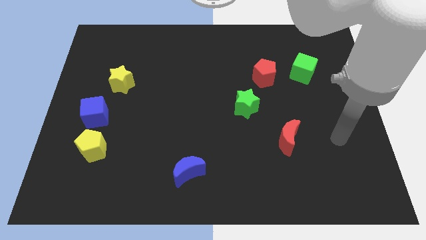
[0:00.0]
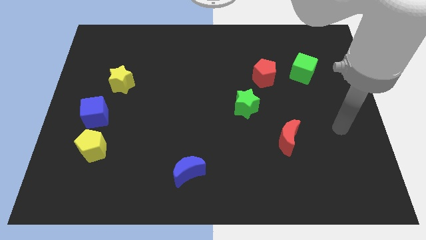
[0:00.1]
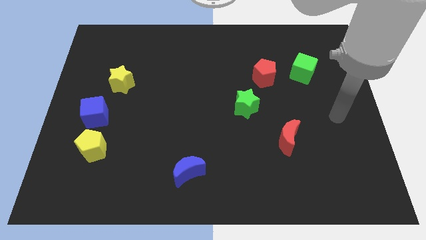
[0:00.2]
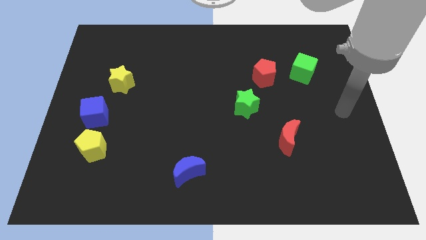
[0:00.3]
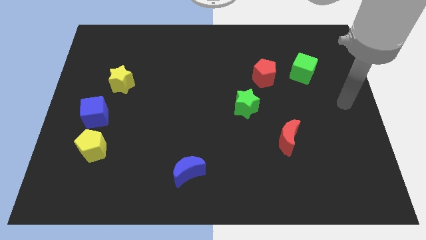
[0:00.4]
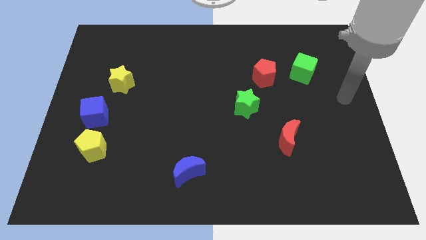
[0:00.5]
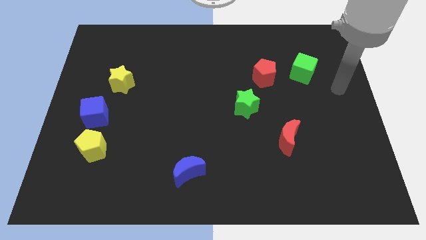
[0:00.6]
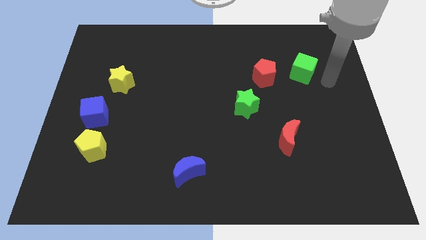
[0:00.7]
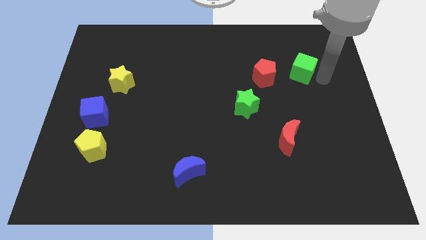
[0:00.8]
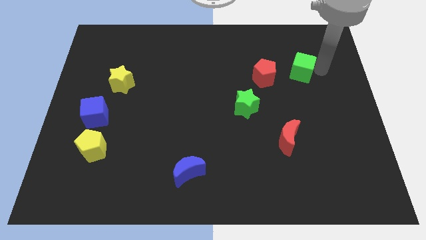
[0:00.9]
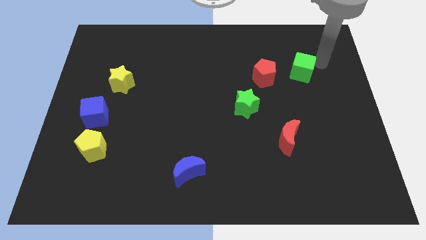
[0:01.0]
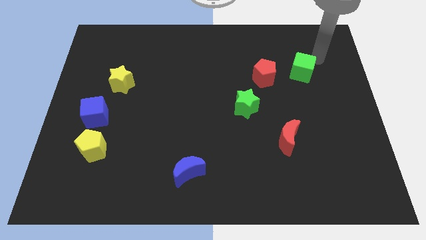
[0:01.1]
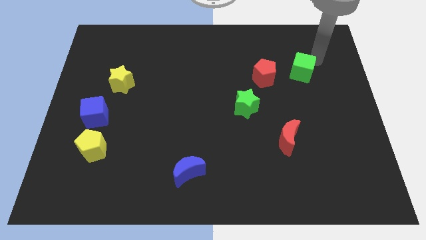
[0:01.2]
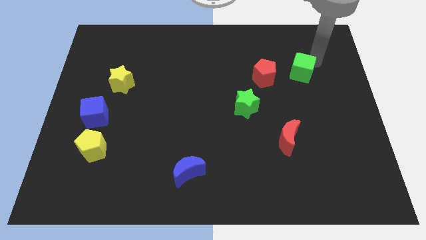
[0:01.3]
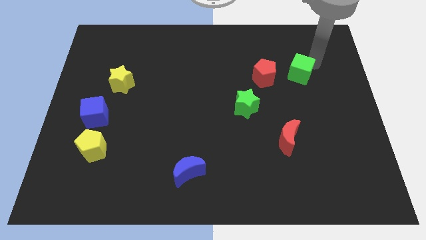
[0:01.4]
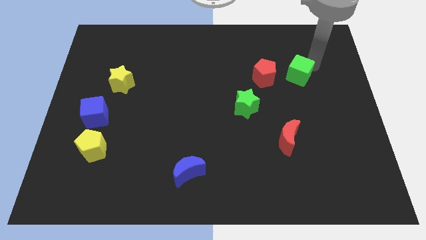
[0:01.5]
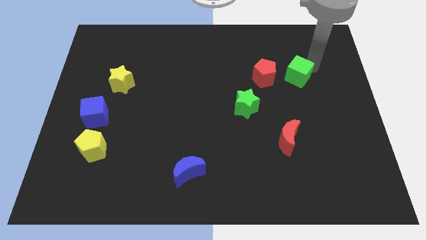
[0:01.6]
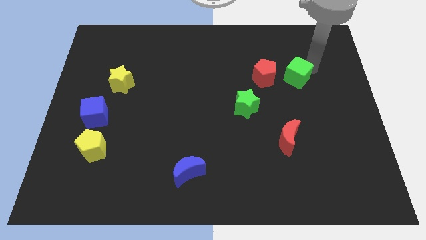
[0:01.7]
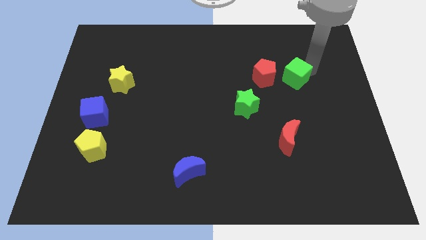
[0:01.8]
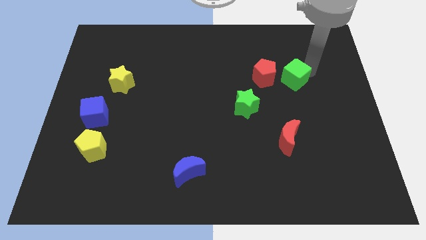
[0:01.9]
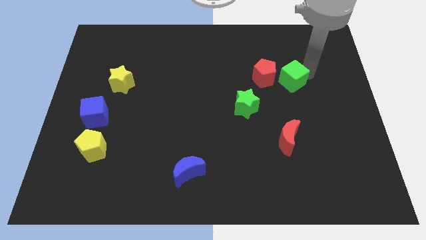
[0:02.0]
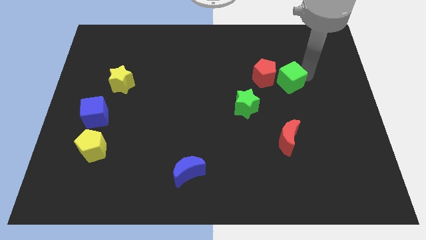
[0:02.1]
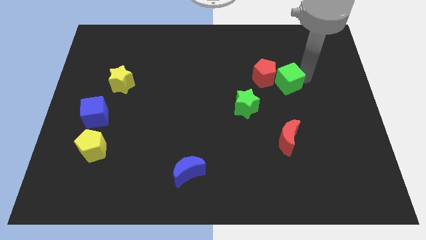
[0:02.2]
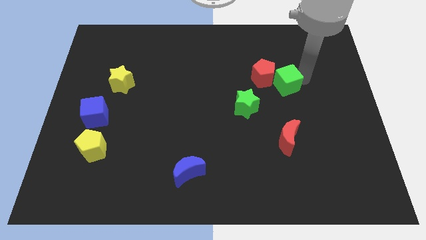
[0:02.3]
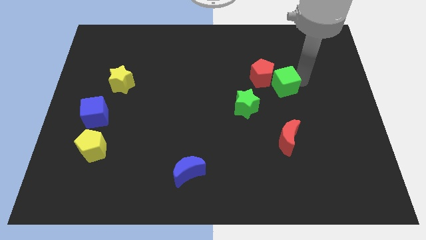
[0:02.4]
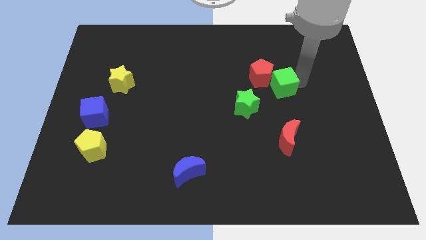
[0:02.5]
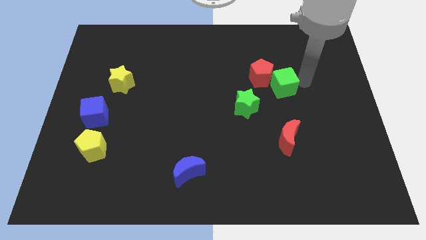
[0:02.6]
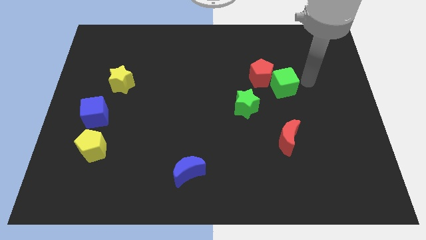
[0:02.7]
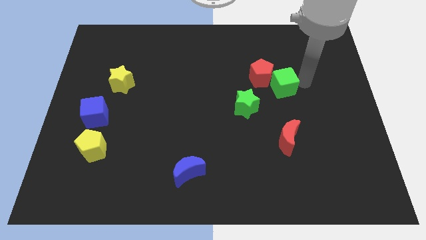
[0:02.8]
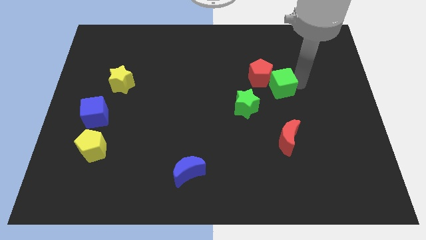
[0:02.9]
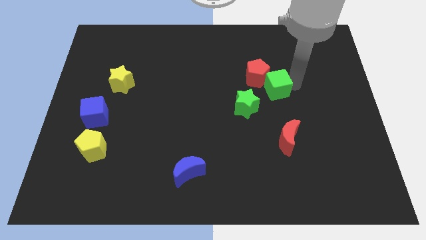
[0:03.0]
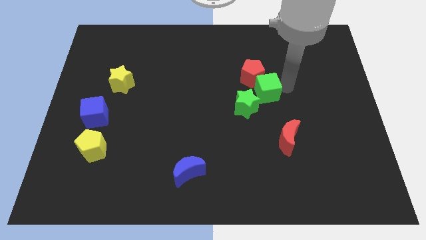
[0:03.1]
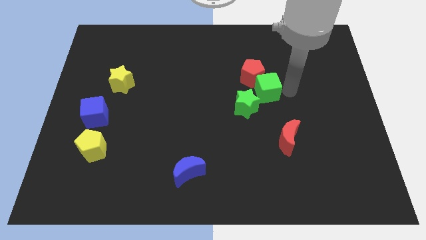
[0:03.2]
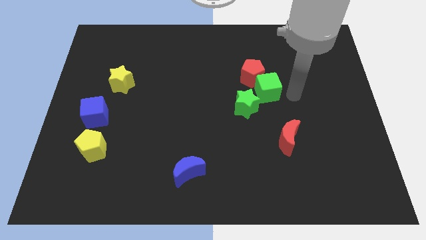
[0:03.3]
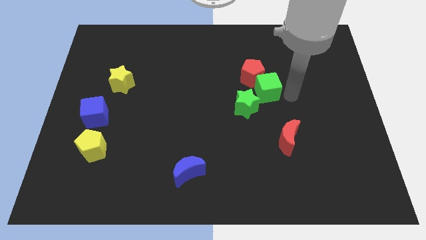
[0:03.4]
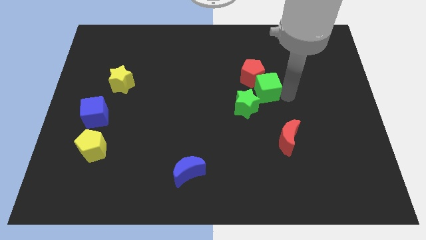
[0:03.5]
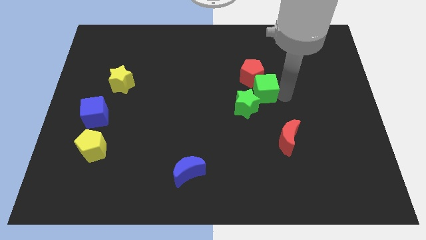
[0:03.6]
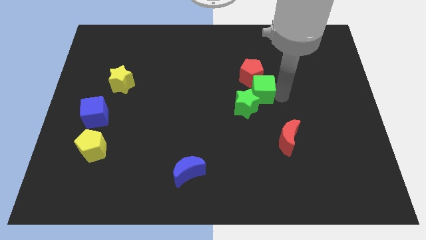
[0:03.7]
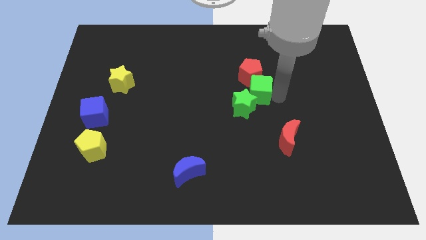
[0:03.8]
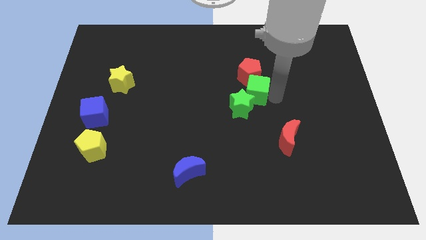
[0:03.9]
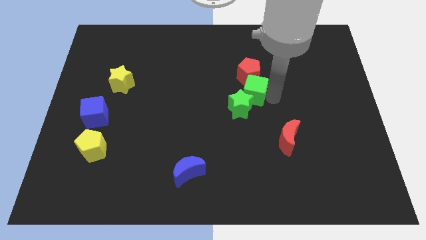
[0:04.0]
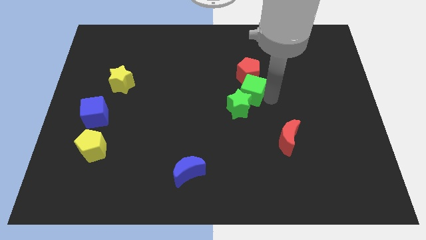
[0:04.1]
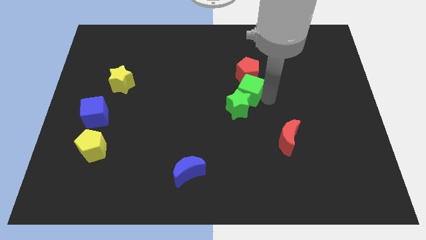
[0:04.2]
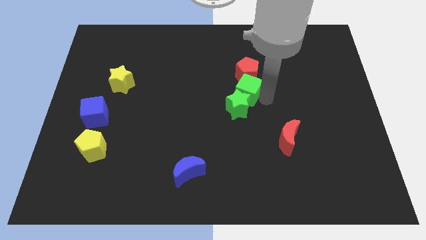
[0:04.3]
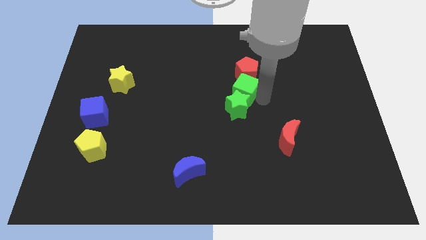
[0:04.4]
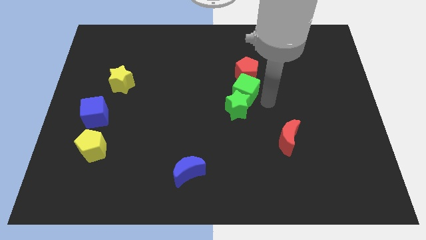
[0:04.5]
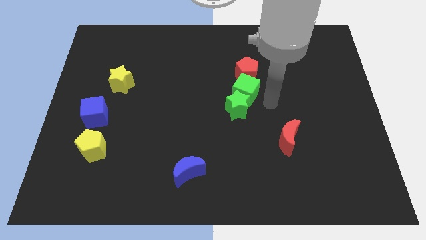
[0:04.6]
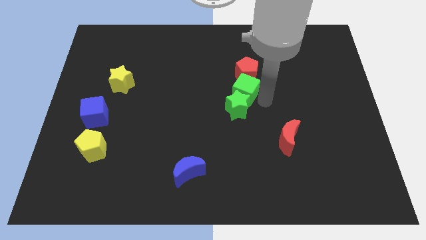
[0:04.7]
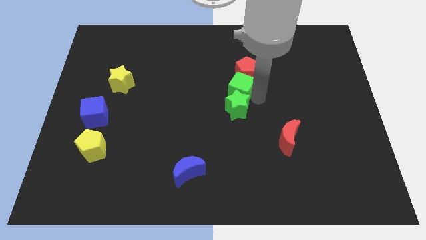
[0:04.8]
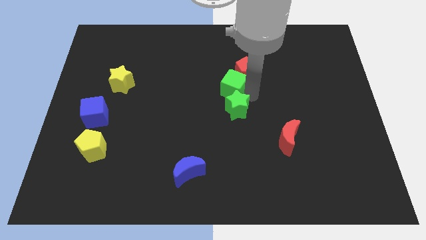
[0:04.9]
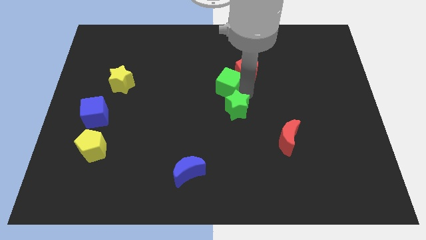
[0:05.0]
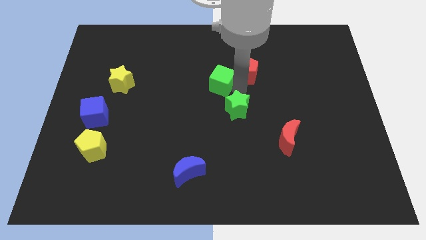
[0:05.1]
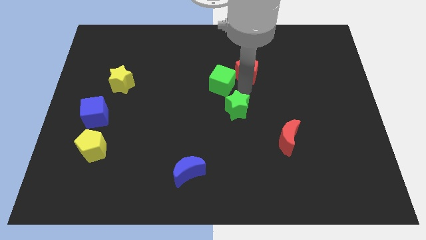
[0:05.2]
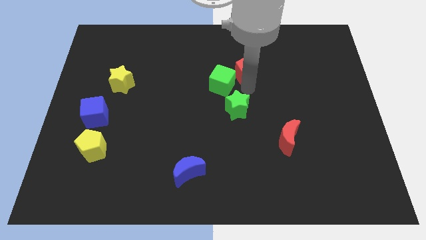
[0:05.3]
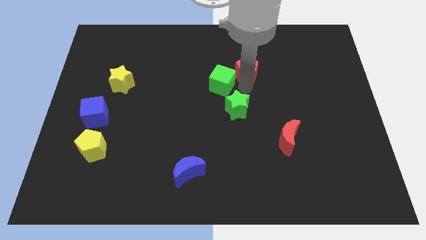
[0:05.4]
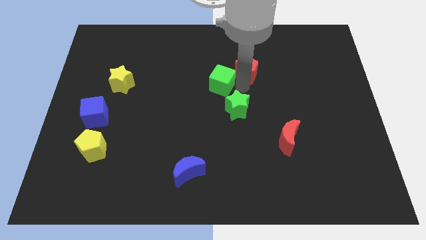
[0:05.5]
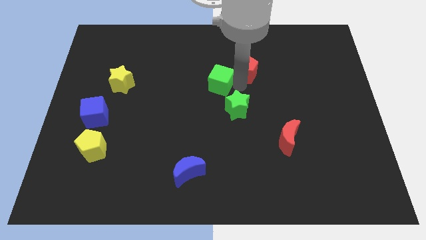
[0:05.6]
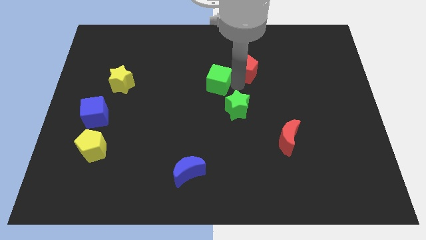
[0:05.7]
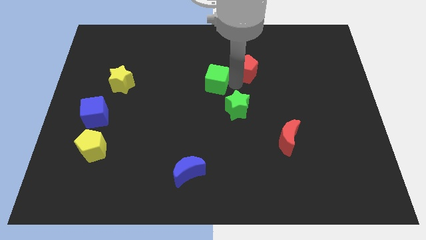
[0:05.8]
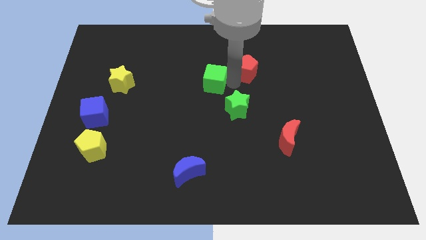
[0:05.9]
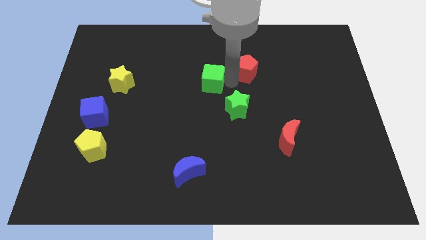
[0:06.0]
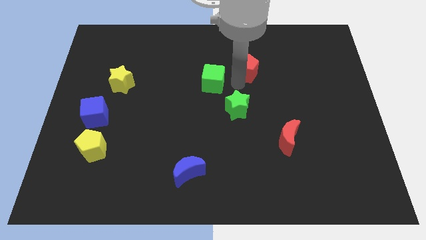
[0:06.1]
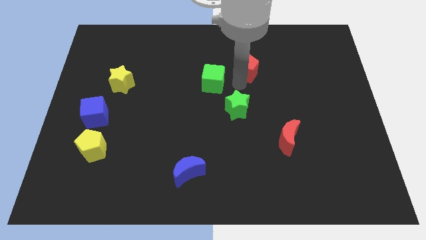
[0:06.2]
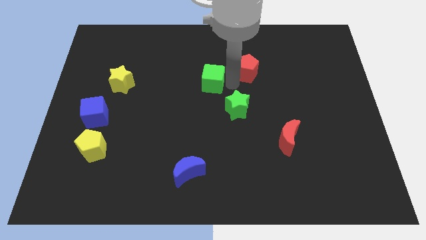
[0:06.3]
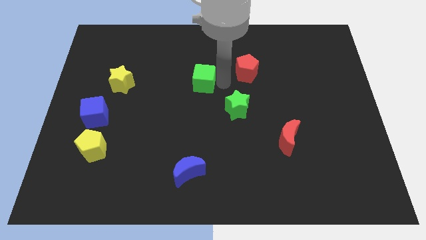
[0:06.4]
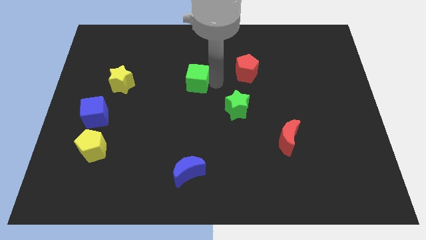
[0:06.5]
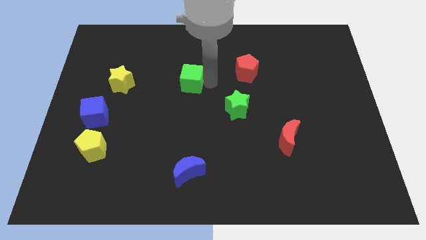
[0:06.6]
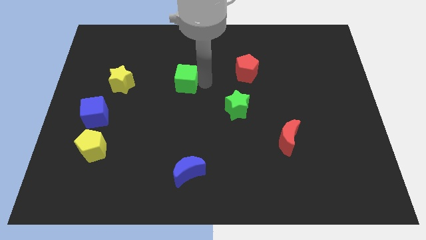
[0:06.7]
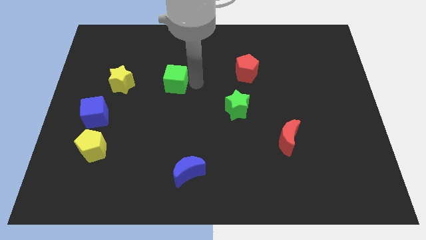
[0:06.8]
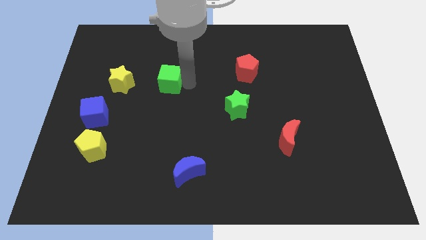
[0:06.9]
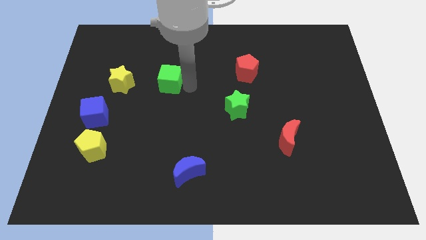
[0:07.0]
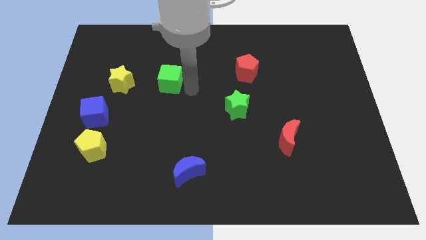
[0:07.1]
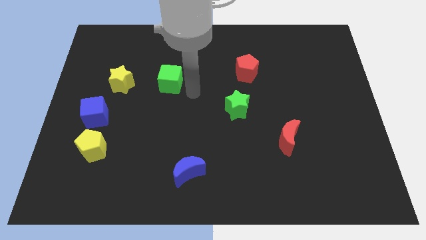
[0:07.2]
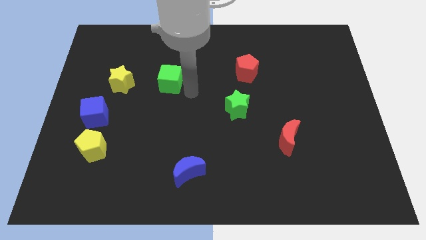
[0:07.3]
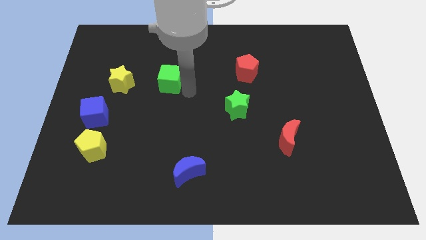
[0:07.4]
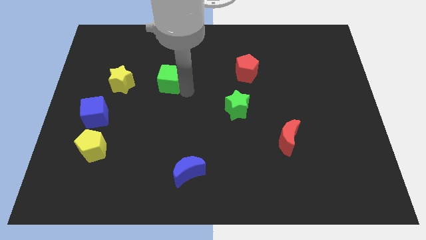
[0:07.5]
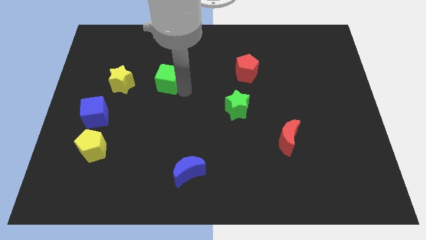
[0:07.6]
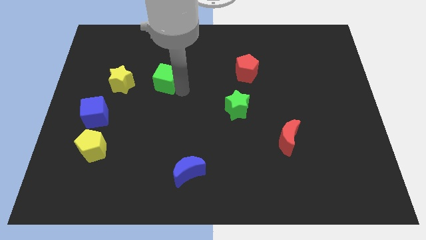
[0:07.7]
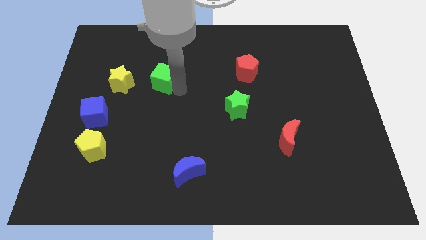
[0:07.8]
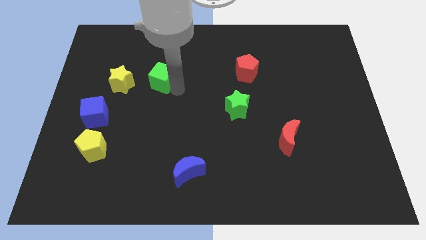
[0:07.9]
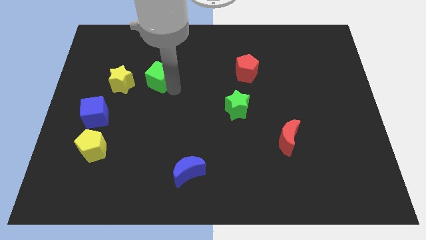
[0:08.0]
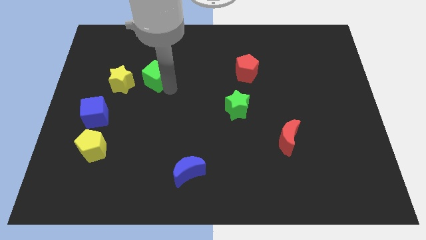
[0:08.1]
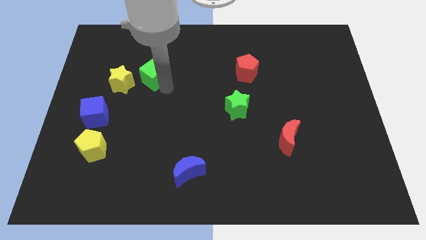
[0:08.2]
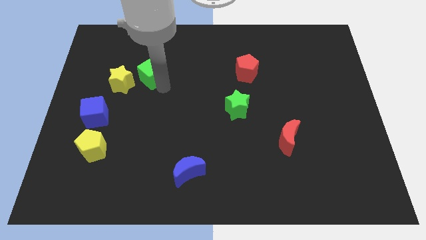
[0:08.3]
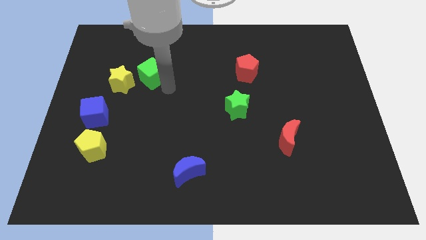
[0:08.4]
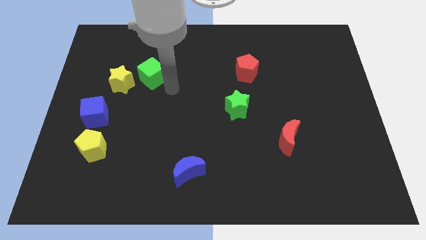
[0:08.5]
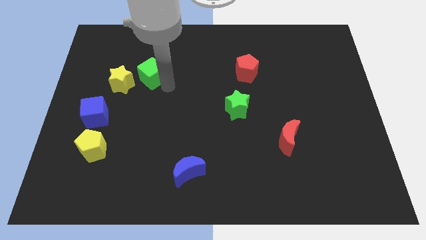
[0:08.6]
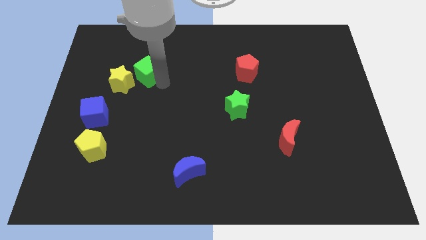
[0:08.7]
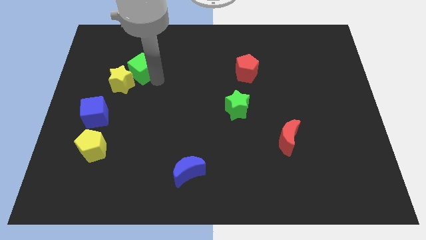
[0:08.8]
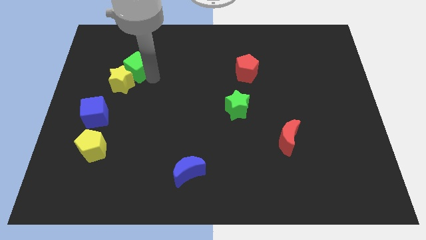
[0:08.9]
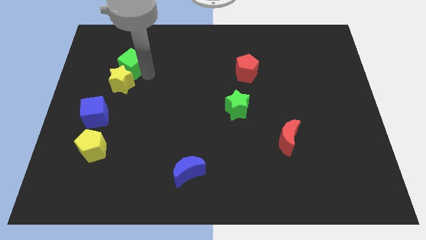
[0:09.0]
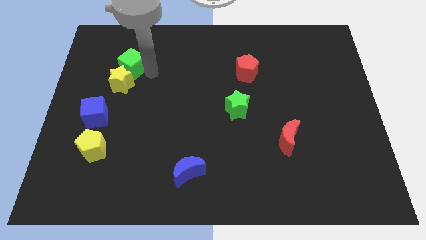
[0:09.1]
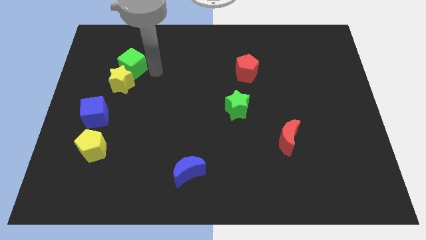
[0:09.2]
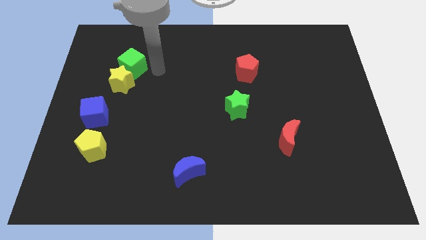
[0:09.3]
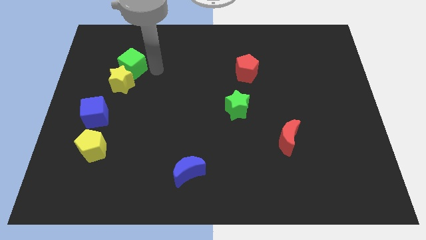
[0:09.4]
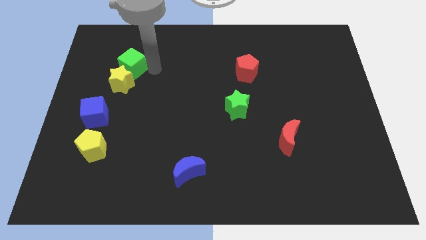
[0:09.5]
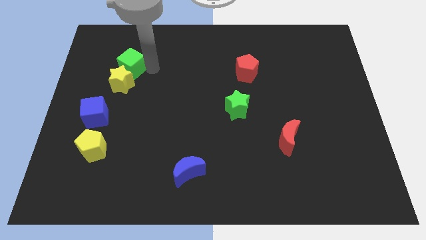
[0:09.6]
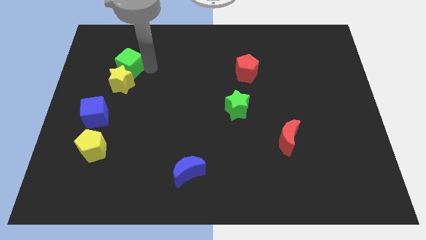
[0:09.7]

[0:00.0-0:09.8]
slide the green cube diagonally up and to the left of the yellow star
